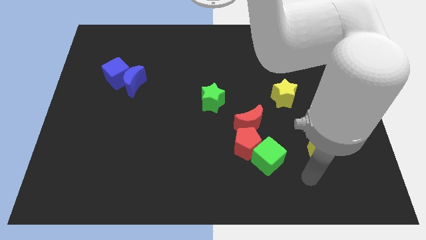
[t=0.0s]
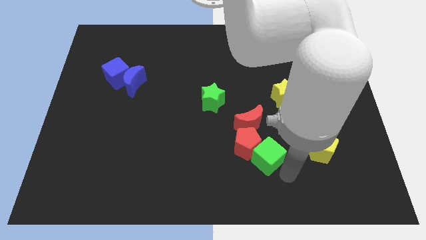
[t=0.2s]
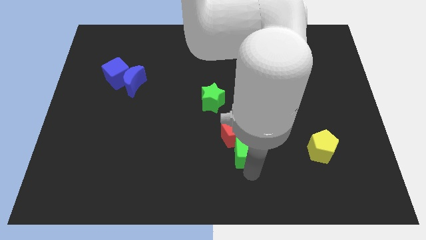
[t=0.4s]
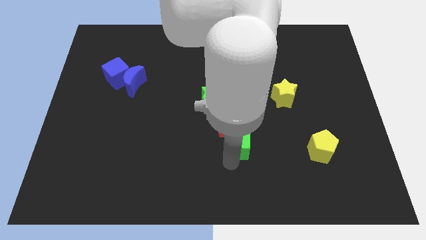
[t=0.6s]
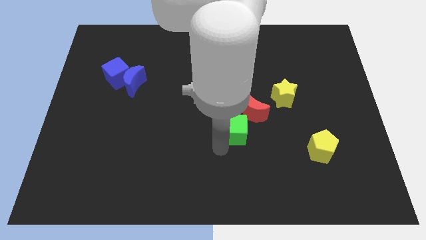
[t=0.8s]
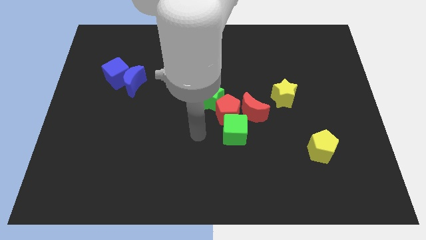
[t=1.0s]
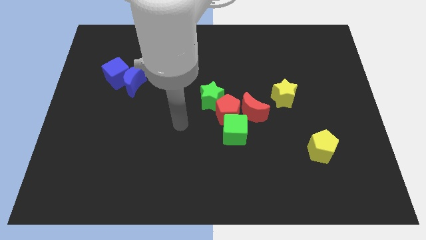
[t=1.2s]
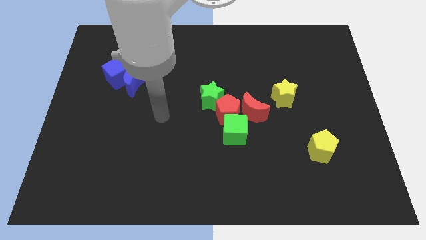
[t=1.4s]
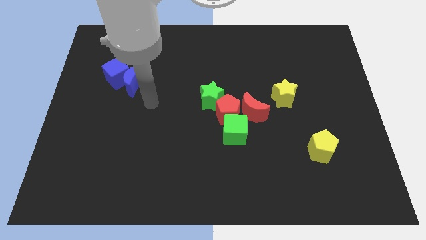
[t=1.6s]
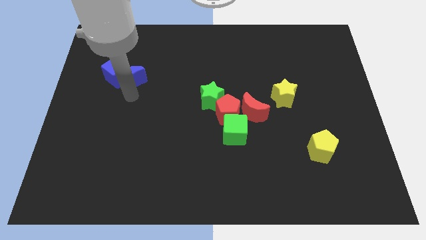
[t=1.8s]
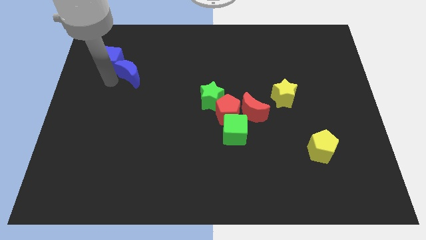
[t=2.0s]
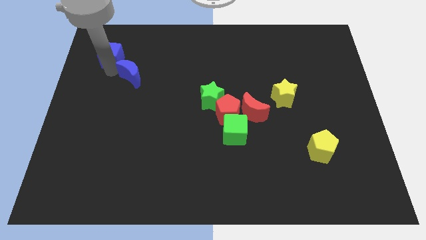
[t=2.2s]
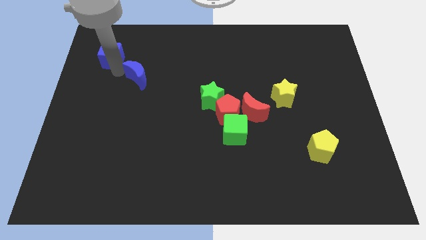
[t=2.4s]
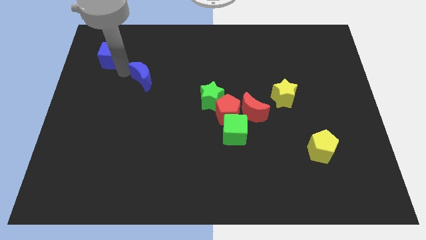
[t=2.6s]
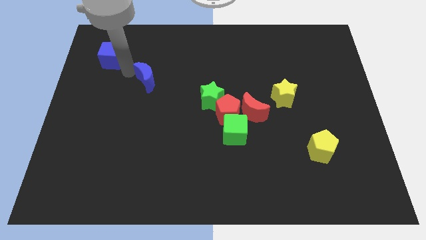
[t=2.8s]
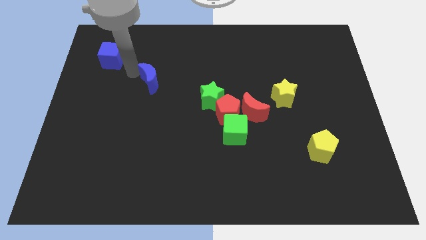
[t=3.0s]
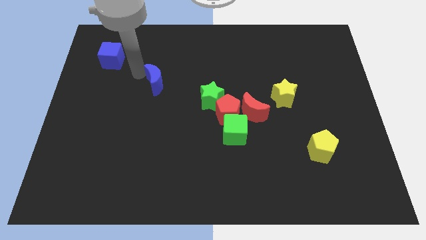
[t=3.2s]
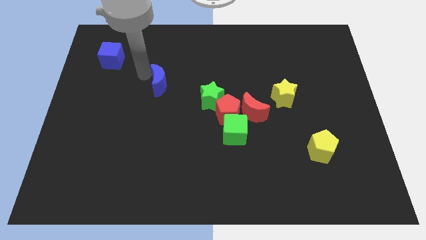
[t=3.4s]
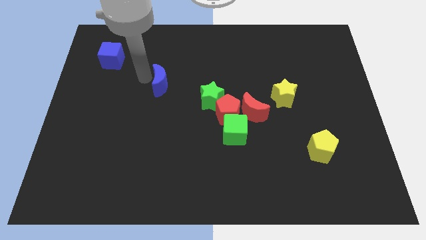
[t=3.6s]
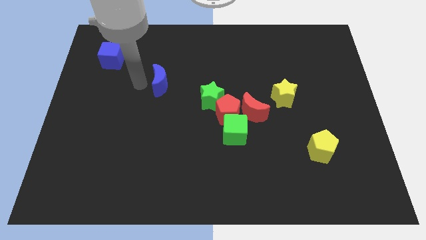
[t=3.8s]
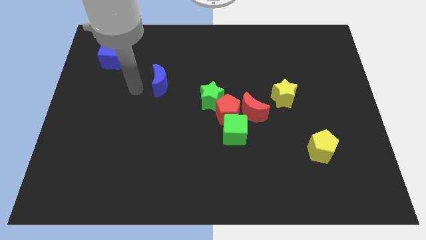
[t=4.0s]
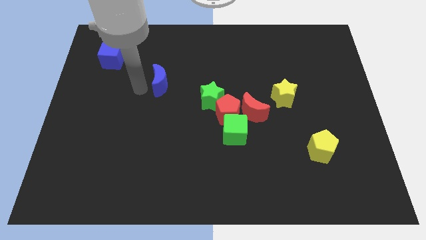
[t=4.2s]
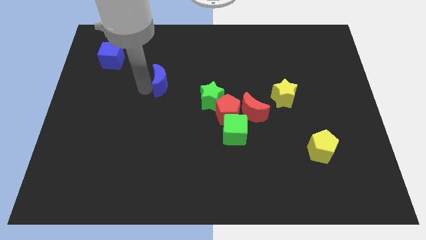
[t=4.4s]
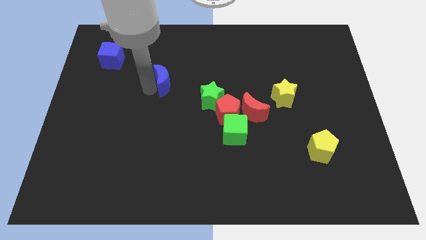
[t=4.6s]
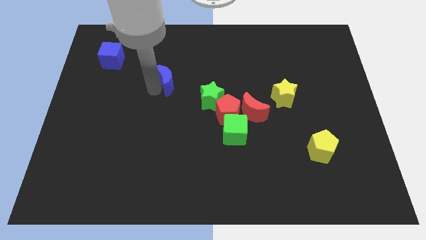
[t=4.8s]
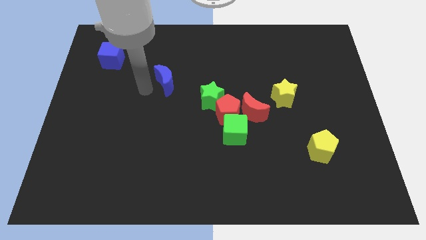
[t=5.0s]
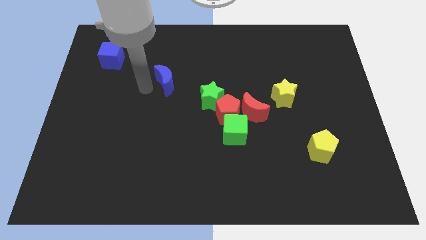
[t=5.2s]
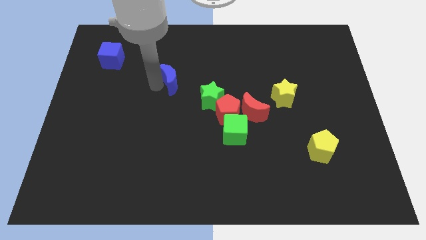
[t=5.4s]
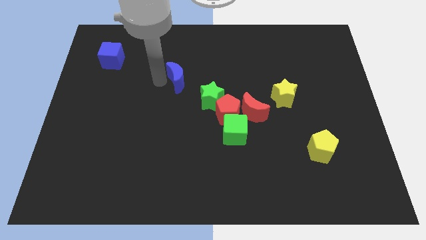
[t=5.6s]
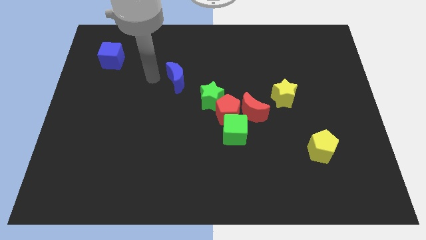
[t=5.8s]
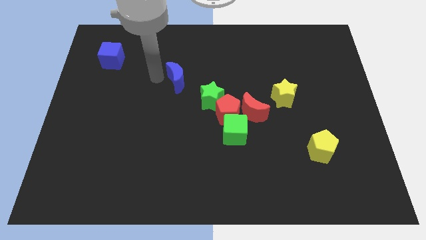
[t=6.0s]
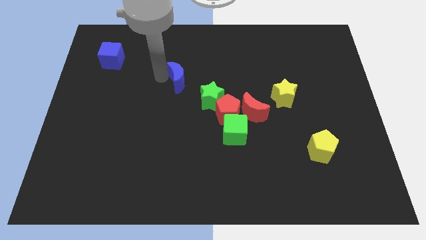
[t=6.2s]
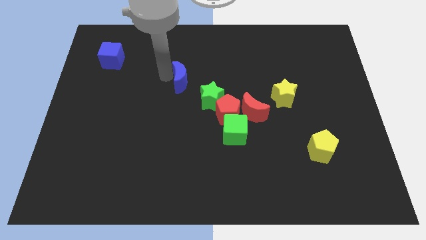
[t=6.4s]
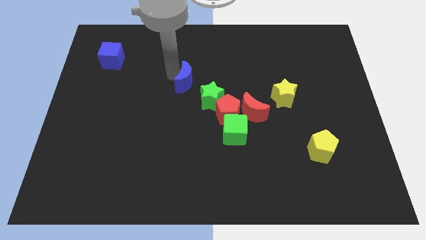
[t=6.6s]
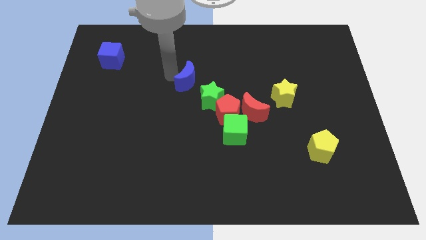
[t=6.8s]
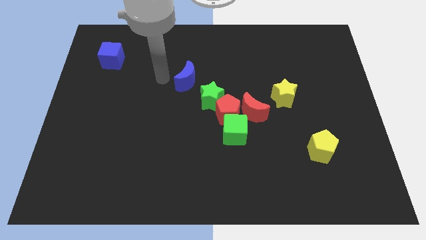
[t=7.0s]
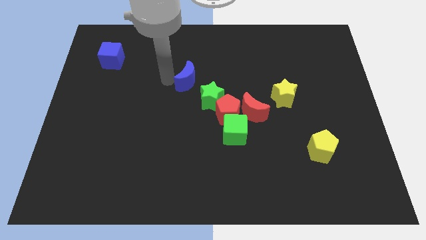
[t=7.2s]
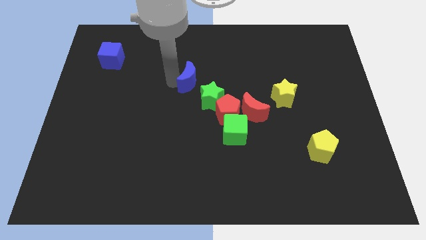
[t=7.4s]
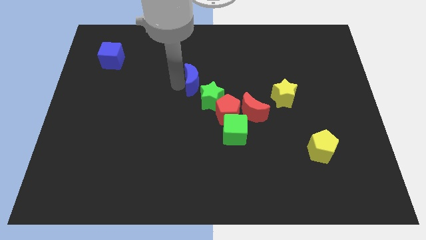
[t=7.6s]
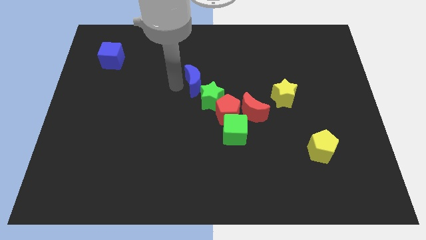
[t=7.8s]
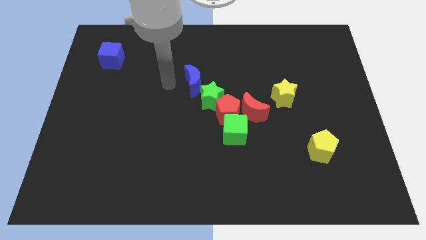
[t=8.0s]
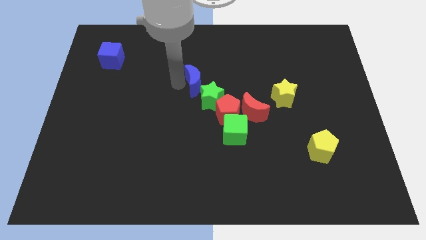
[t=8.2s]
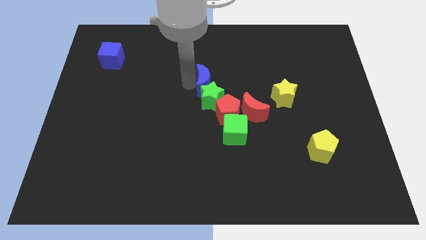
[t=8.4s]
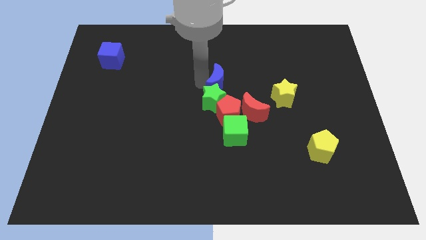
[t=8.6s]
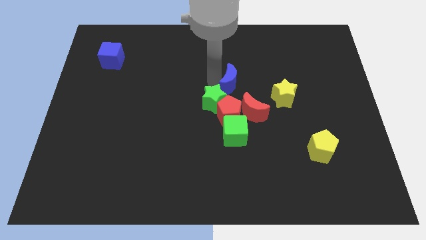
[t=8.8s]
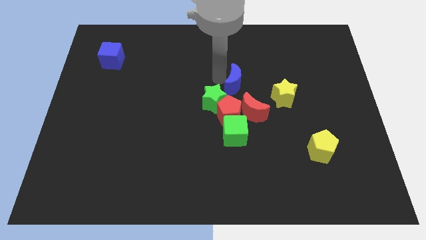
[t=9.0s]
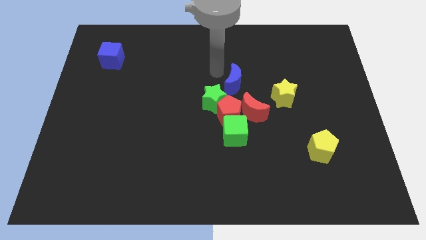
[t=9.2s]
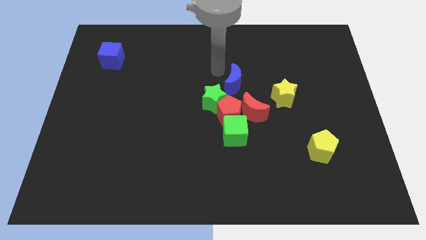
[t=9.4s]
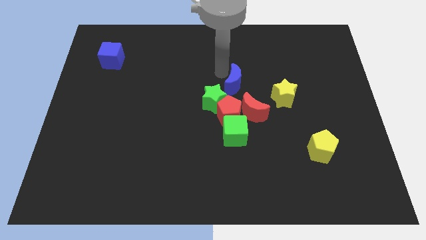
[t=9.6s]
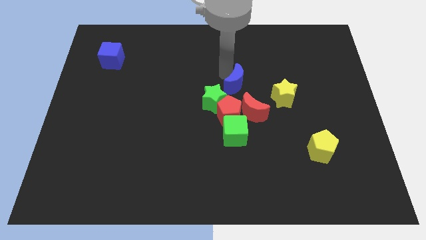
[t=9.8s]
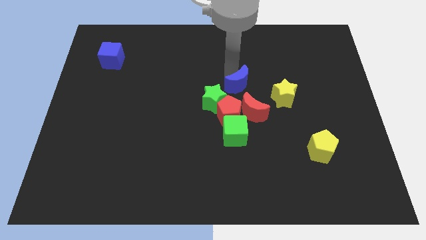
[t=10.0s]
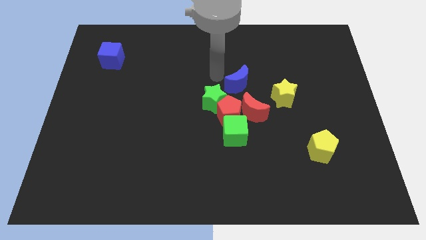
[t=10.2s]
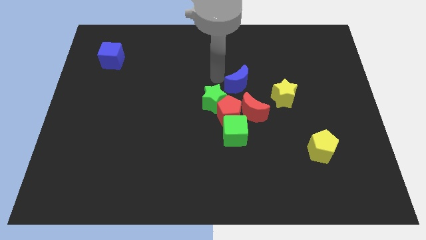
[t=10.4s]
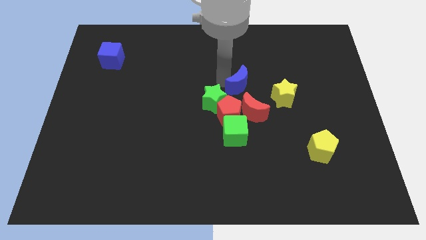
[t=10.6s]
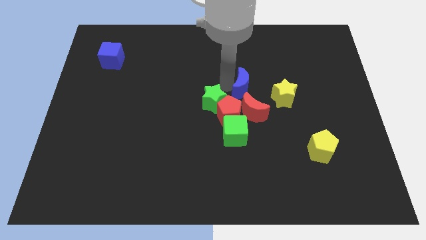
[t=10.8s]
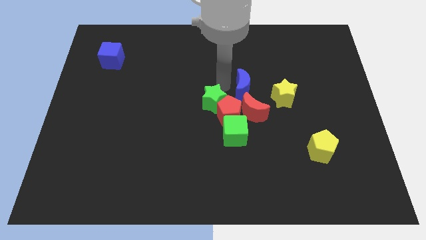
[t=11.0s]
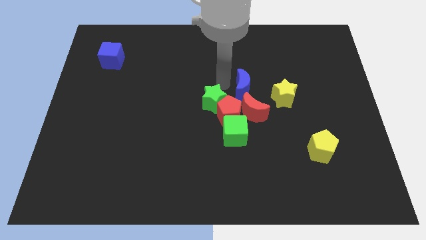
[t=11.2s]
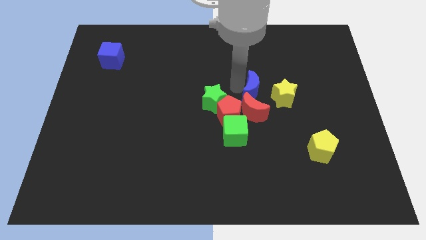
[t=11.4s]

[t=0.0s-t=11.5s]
put the blue moon to the top right side of the red moon

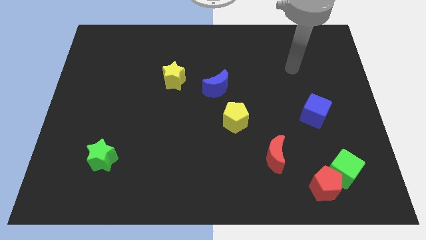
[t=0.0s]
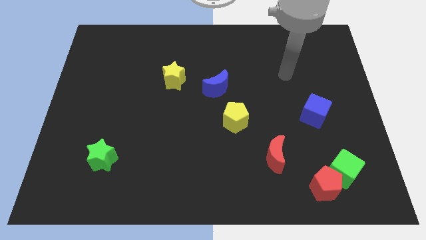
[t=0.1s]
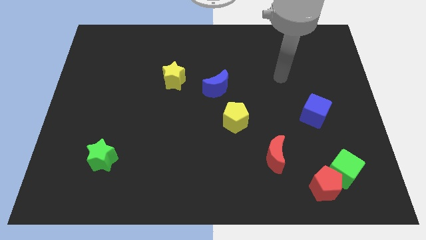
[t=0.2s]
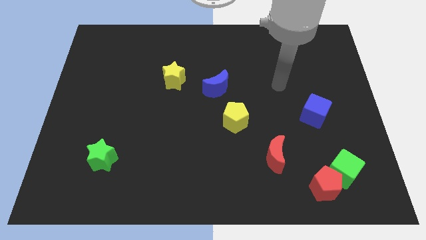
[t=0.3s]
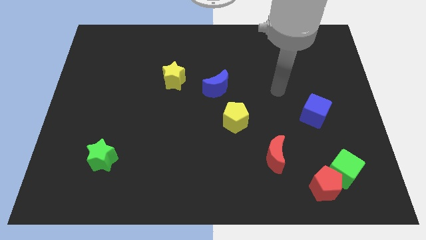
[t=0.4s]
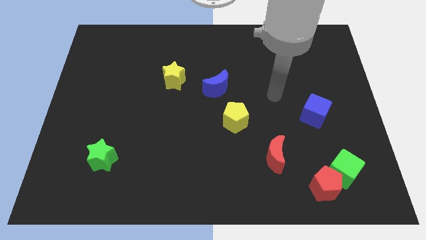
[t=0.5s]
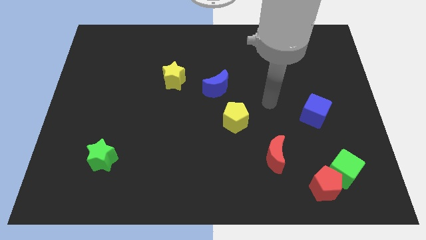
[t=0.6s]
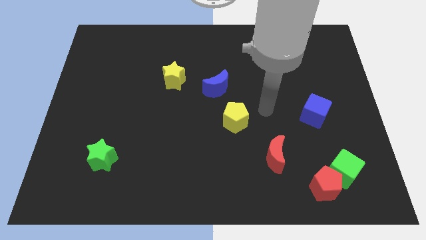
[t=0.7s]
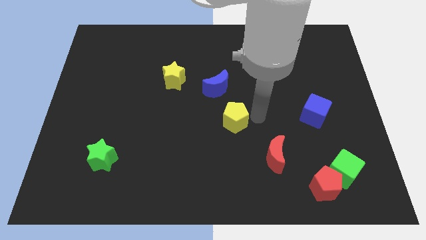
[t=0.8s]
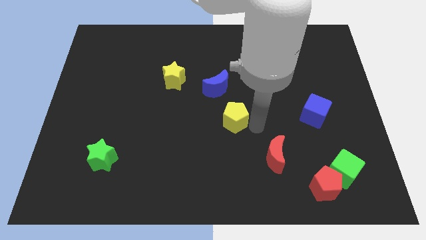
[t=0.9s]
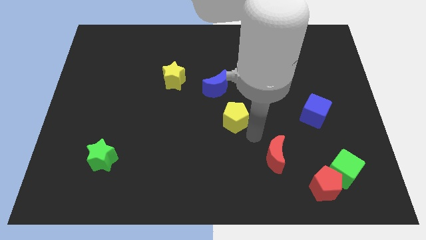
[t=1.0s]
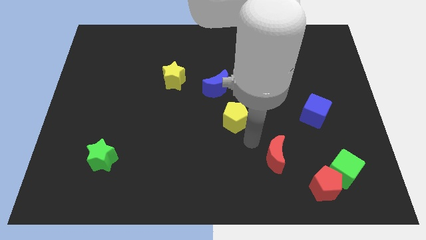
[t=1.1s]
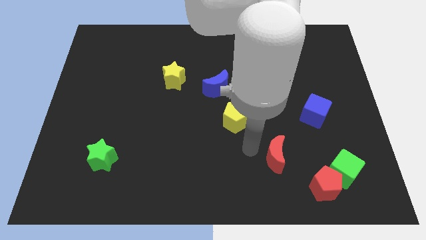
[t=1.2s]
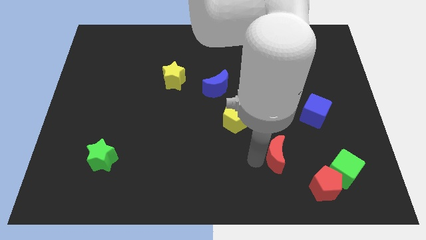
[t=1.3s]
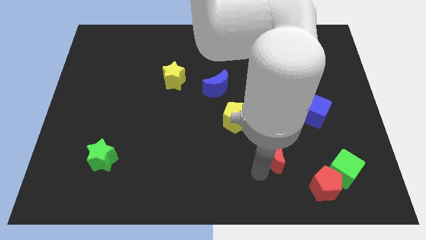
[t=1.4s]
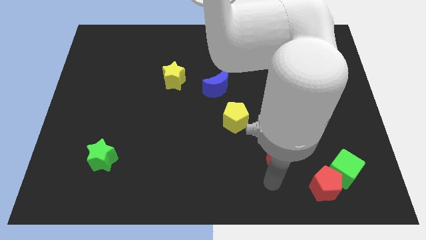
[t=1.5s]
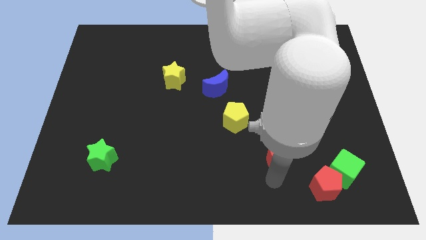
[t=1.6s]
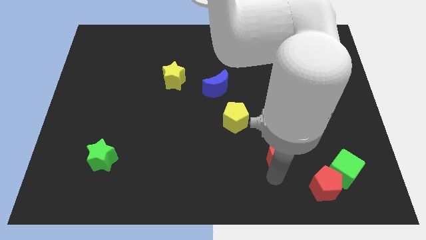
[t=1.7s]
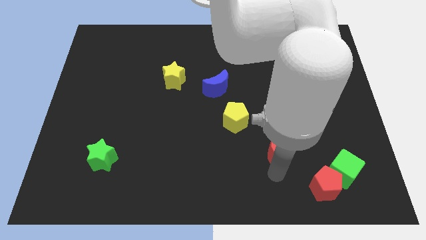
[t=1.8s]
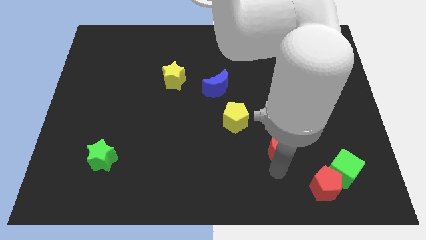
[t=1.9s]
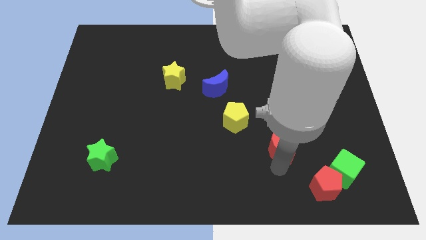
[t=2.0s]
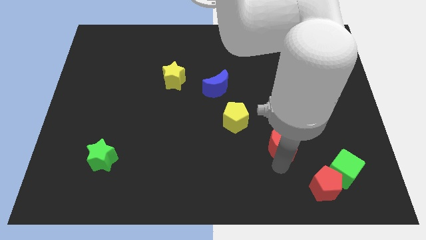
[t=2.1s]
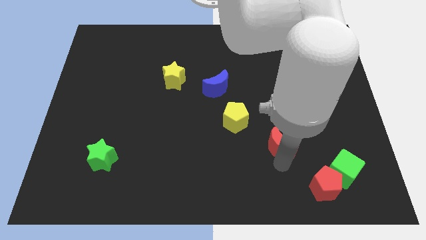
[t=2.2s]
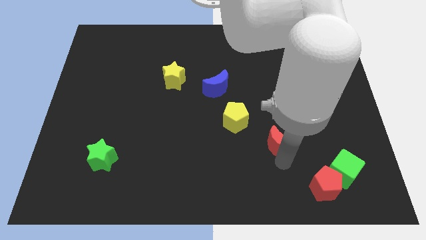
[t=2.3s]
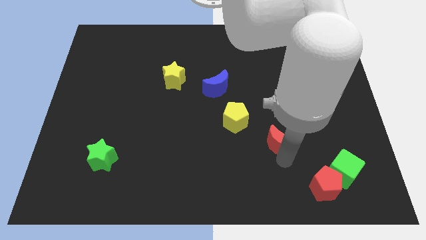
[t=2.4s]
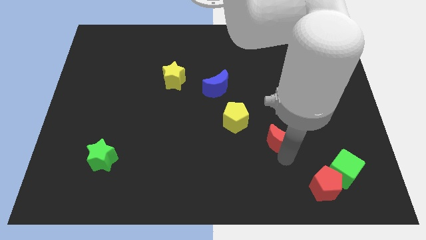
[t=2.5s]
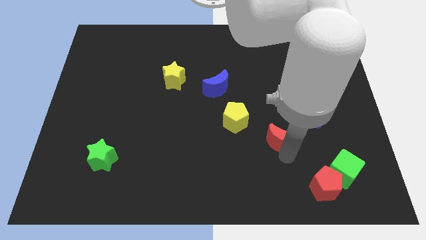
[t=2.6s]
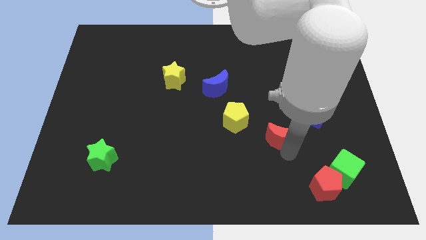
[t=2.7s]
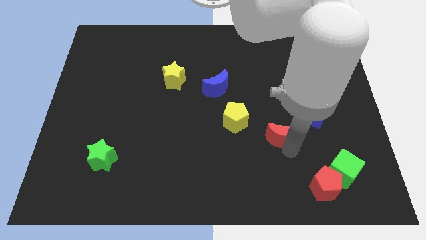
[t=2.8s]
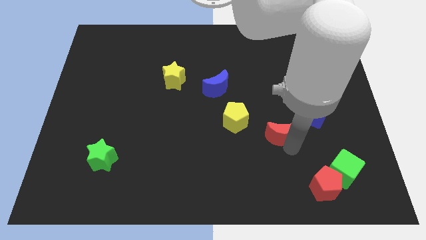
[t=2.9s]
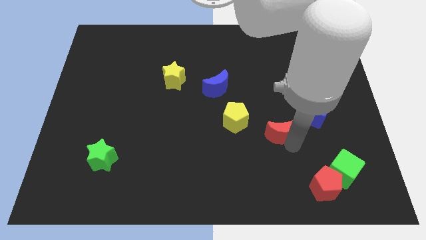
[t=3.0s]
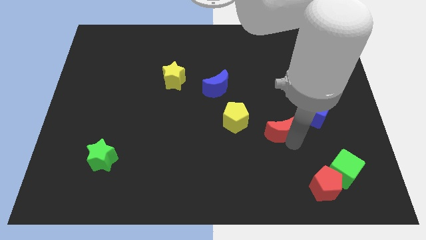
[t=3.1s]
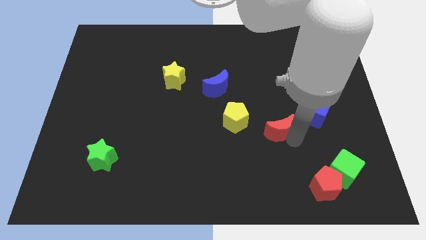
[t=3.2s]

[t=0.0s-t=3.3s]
push the red moon just left of the blue cube
